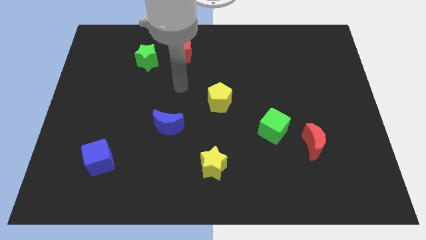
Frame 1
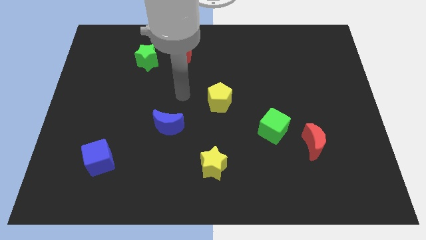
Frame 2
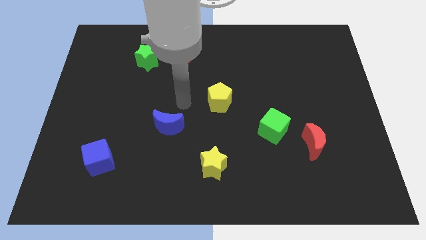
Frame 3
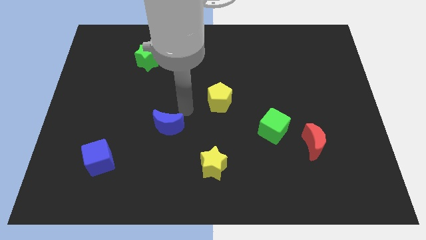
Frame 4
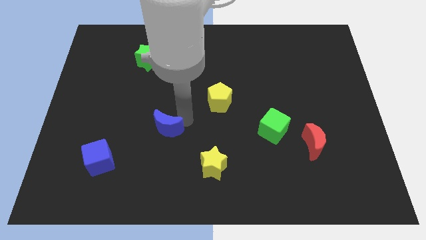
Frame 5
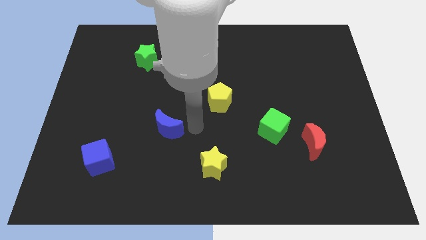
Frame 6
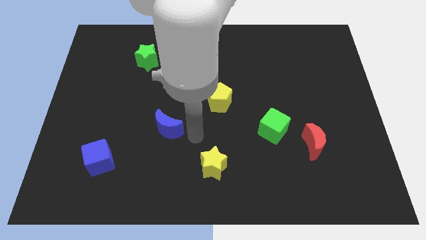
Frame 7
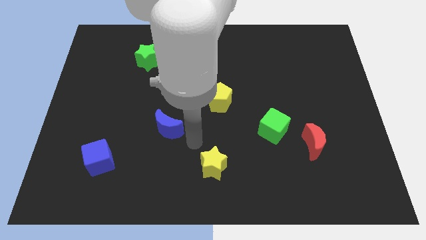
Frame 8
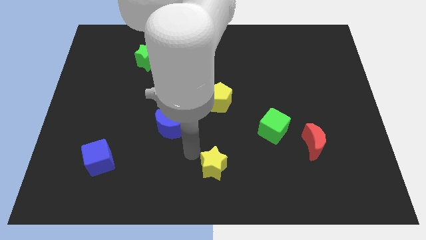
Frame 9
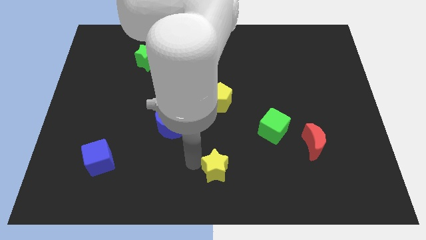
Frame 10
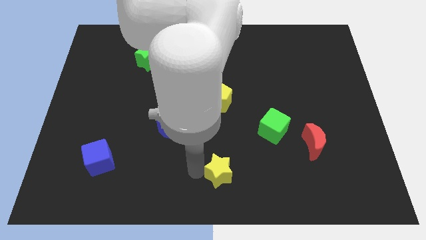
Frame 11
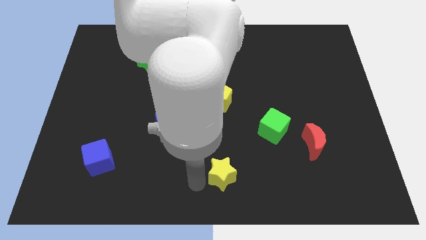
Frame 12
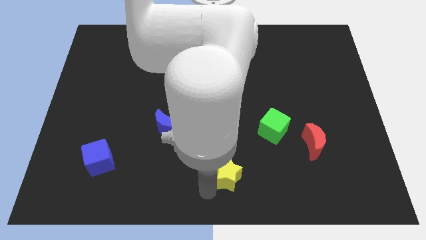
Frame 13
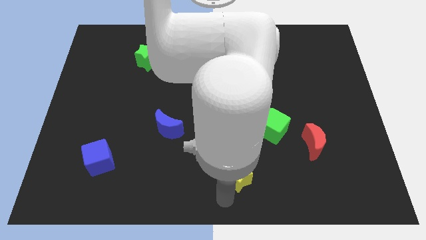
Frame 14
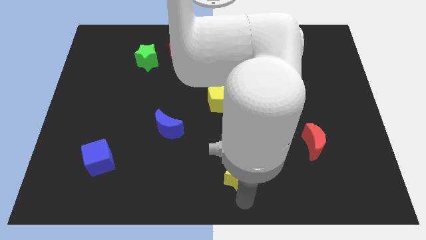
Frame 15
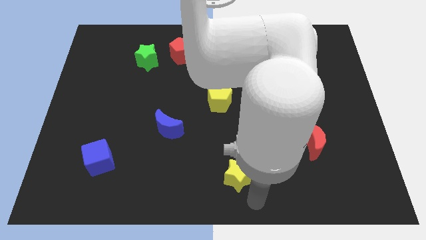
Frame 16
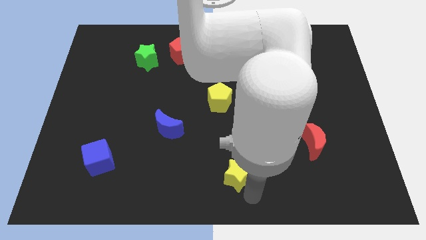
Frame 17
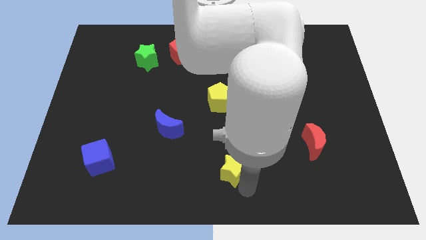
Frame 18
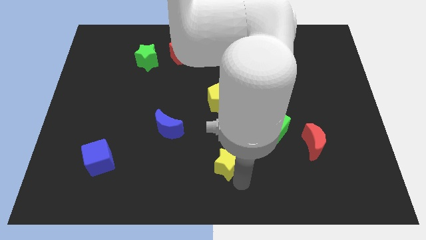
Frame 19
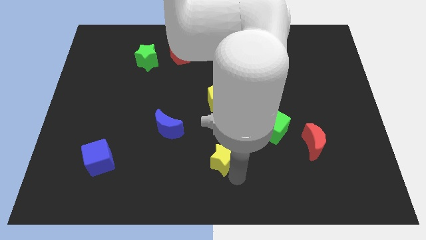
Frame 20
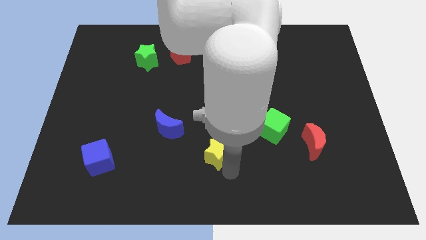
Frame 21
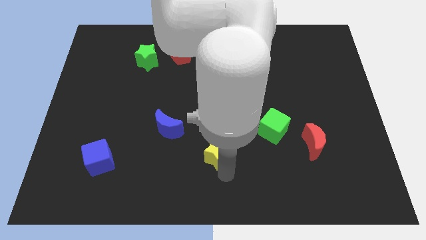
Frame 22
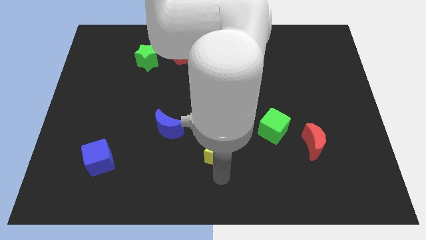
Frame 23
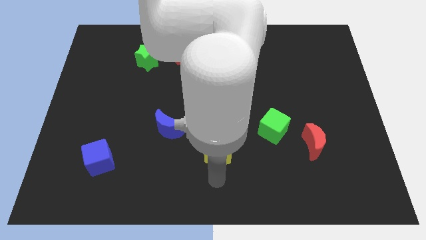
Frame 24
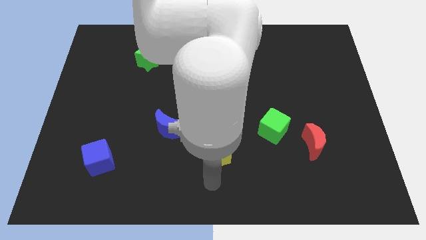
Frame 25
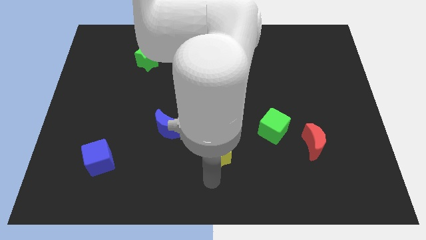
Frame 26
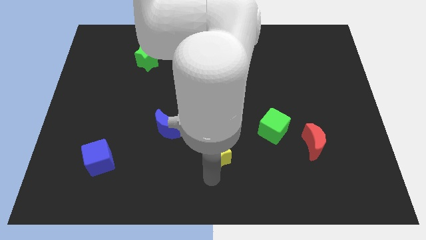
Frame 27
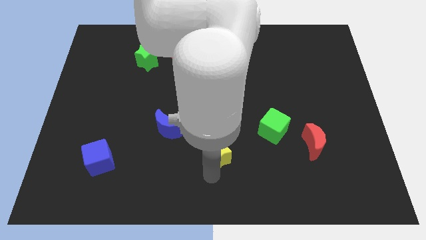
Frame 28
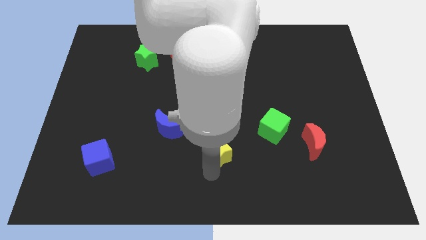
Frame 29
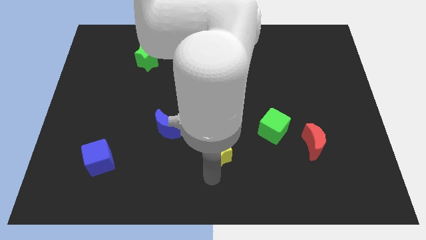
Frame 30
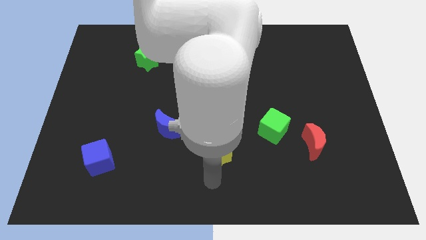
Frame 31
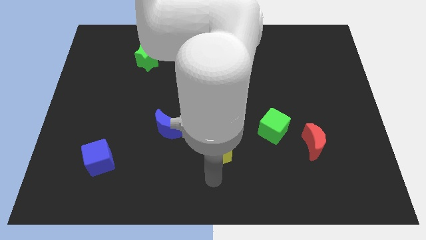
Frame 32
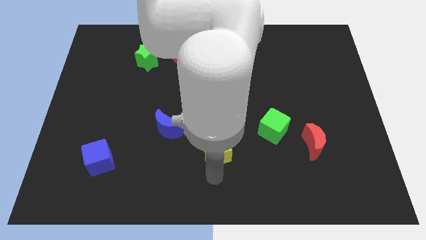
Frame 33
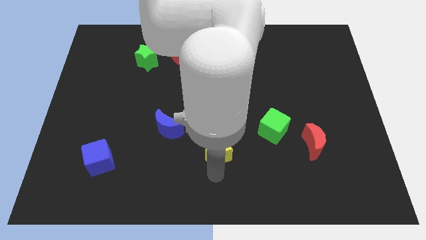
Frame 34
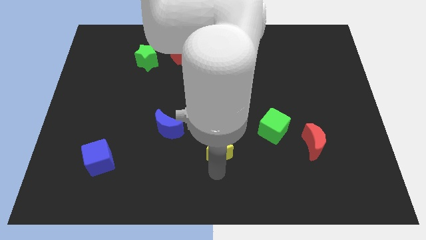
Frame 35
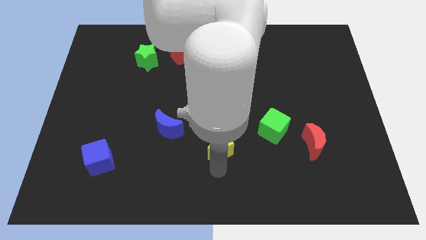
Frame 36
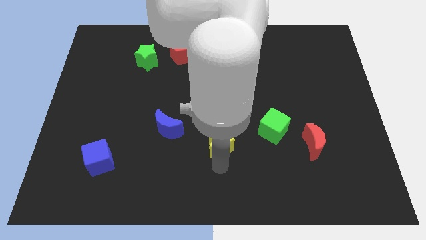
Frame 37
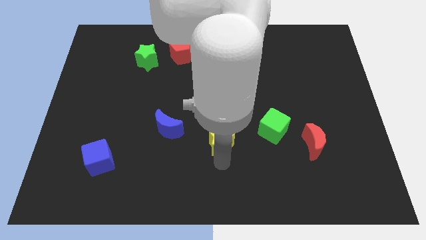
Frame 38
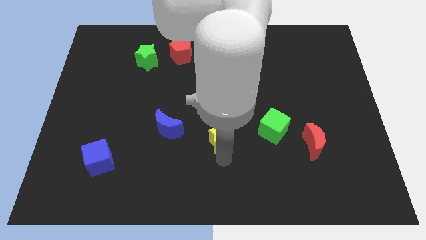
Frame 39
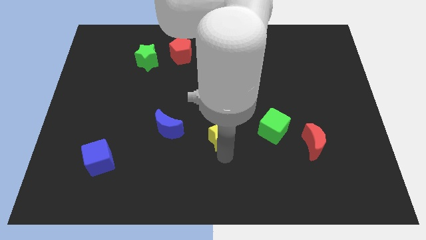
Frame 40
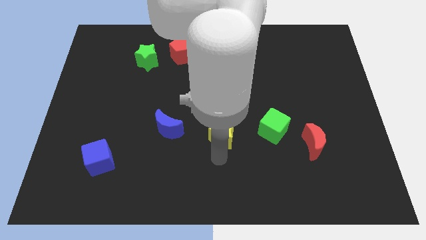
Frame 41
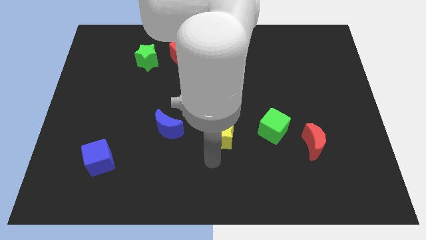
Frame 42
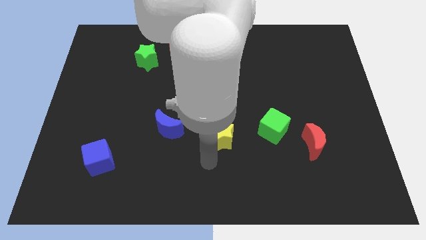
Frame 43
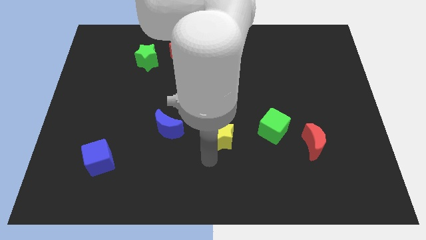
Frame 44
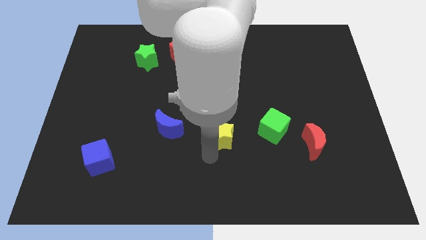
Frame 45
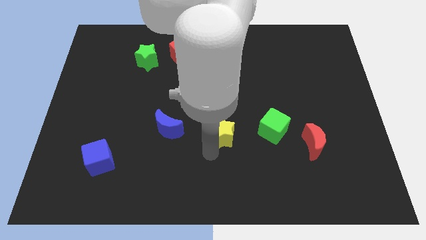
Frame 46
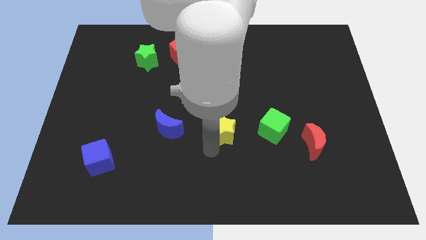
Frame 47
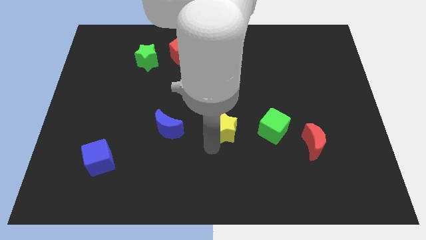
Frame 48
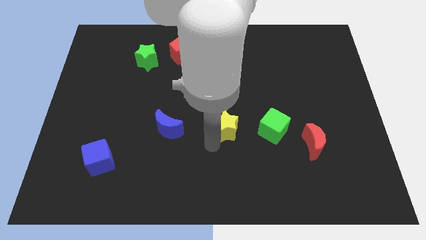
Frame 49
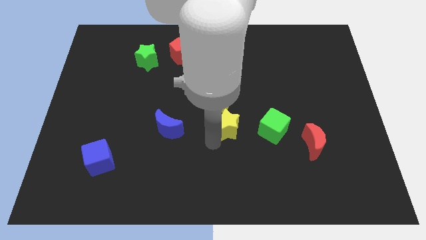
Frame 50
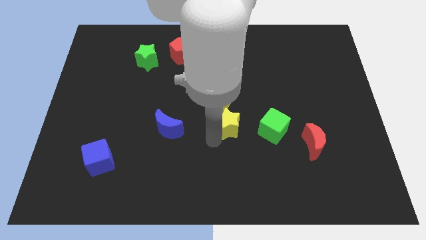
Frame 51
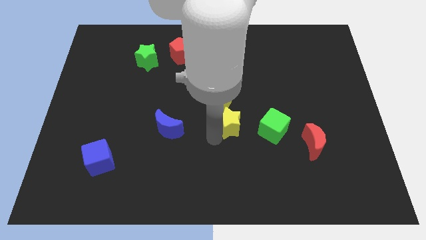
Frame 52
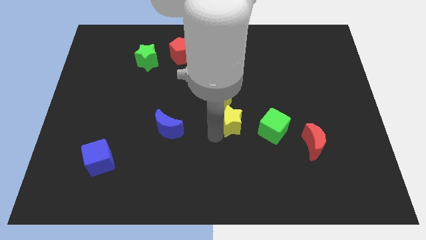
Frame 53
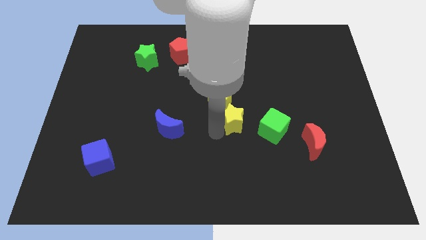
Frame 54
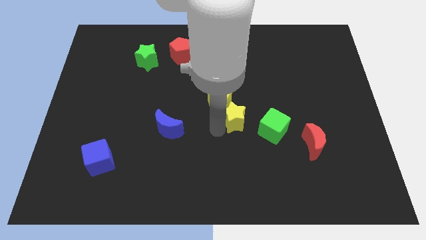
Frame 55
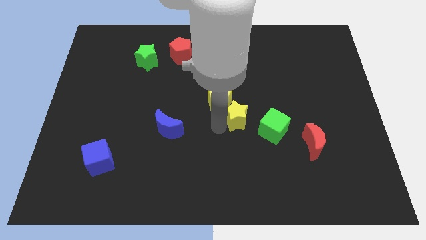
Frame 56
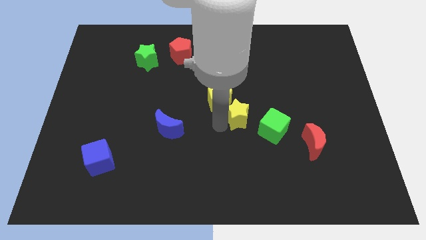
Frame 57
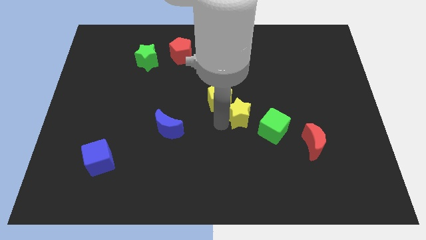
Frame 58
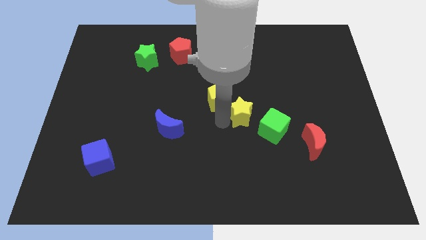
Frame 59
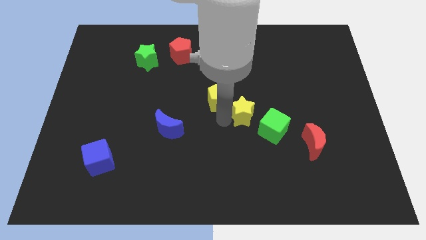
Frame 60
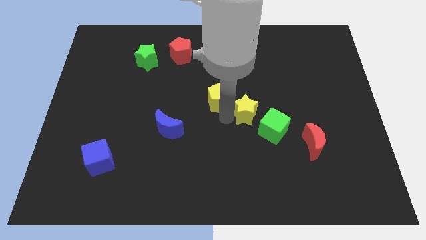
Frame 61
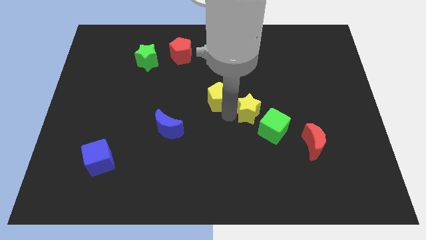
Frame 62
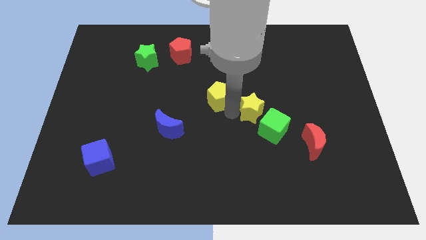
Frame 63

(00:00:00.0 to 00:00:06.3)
put the yellow star to the top side of the green cube
